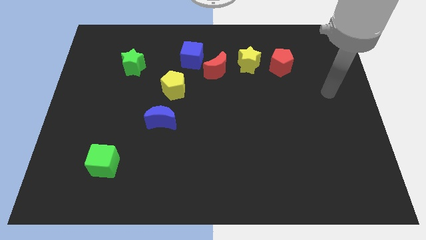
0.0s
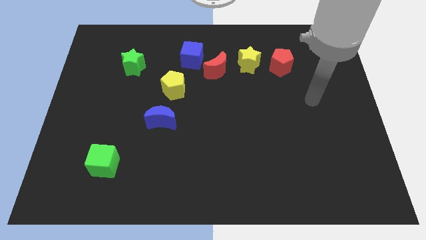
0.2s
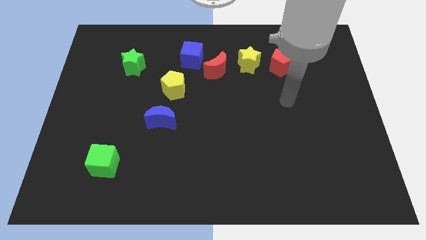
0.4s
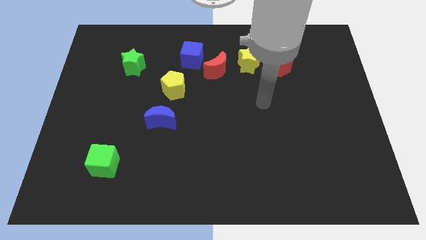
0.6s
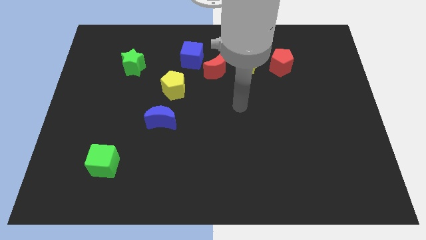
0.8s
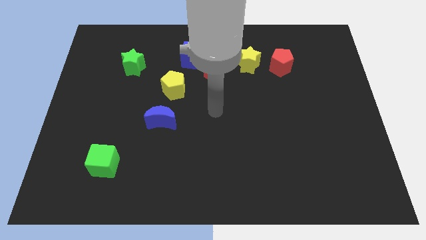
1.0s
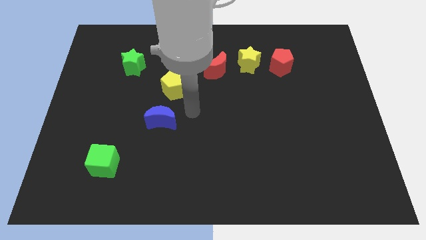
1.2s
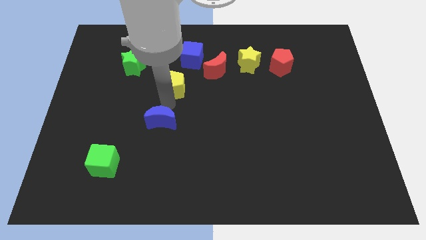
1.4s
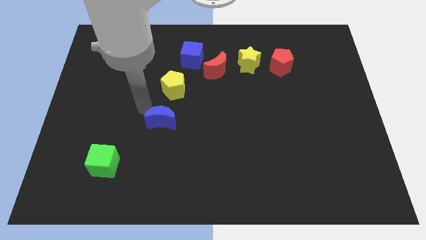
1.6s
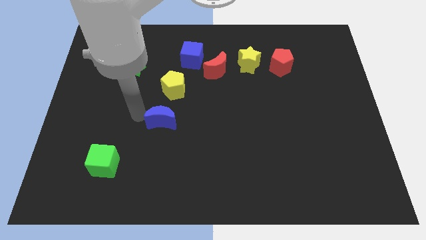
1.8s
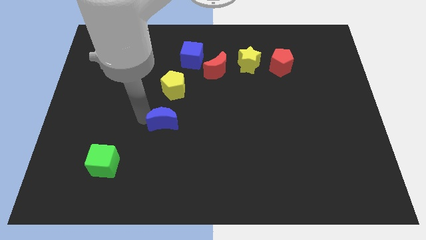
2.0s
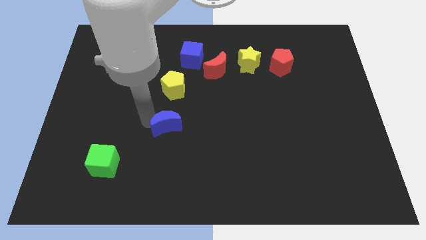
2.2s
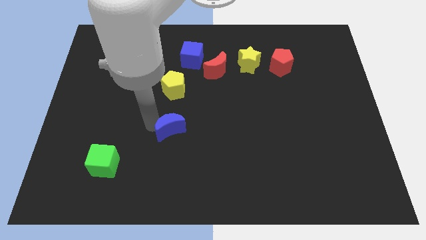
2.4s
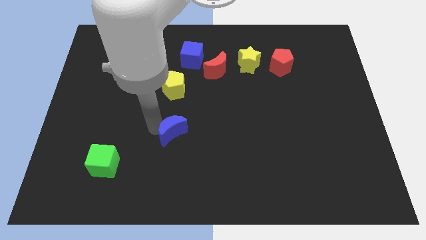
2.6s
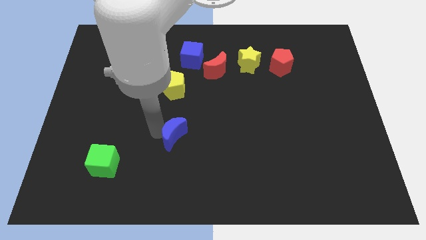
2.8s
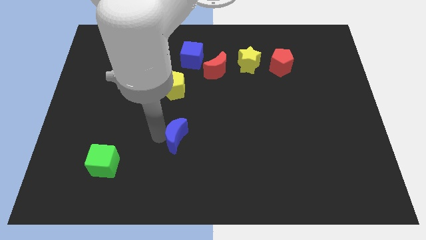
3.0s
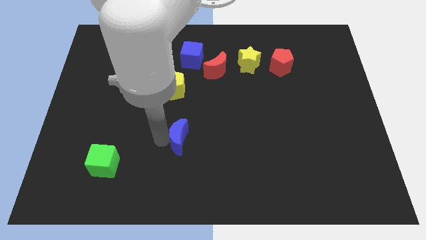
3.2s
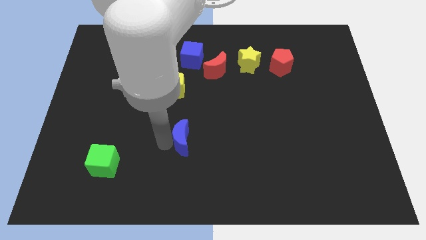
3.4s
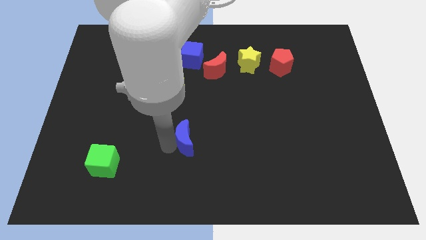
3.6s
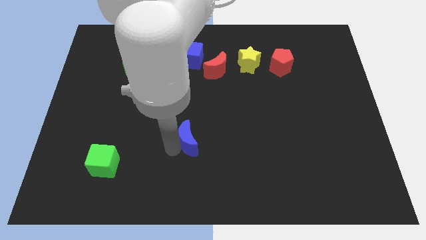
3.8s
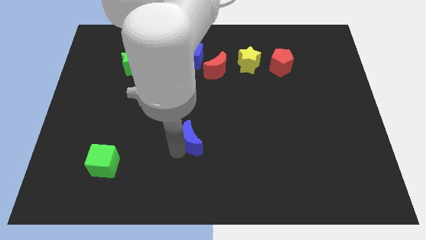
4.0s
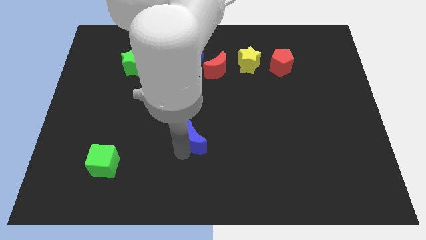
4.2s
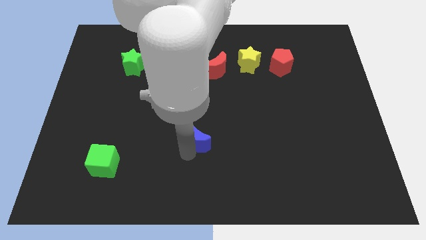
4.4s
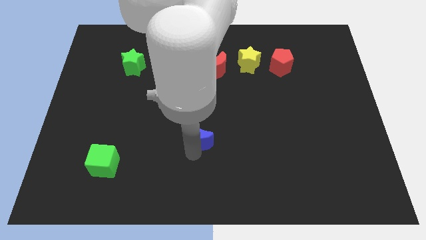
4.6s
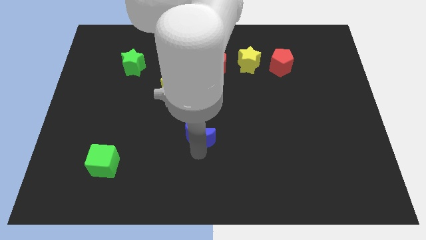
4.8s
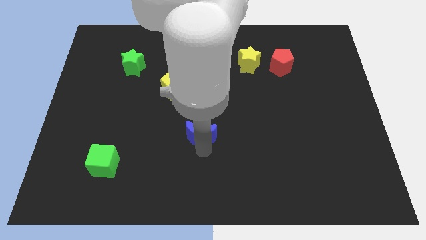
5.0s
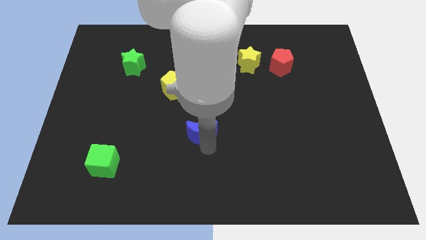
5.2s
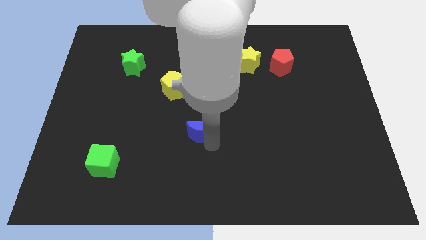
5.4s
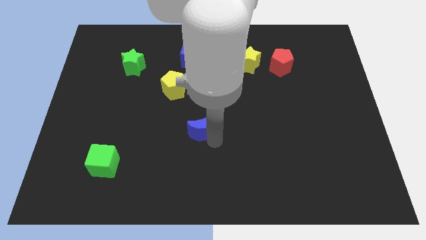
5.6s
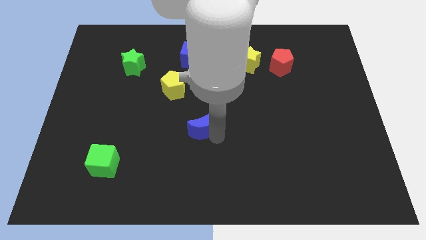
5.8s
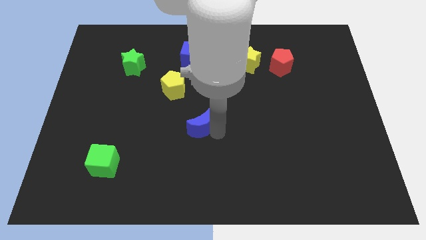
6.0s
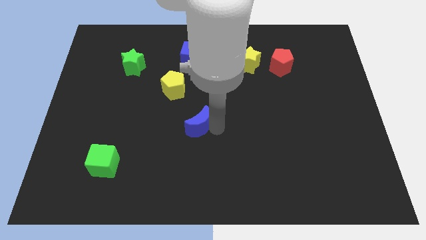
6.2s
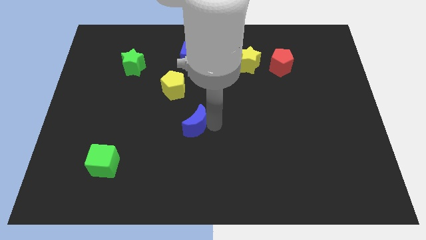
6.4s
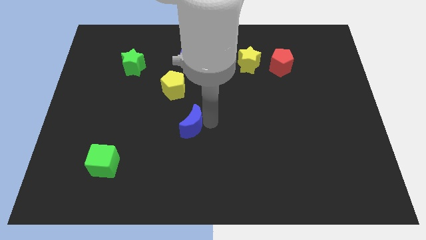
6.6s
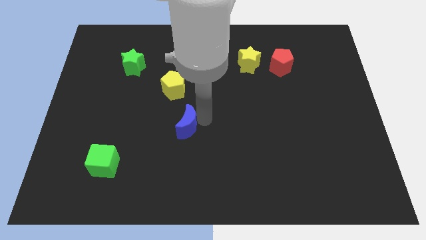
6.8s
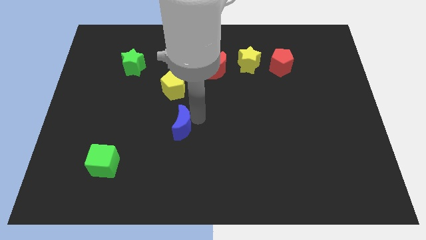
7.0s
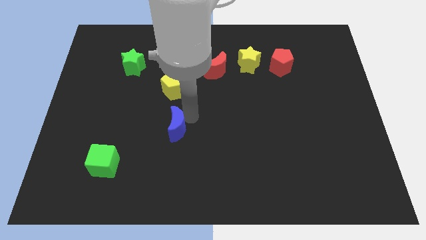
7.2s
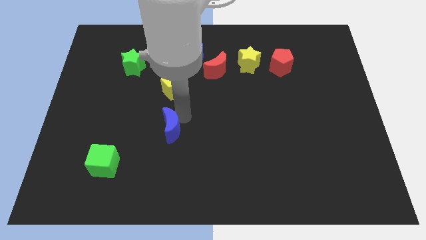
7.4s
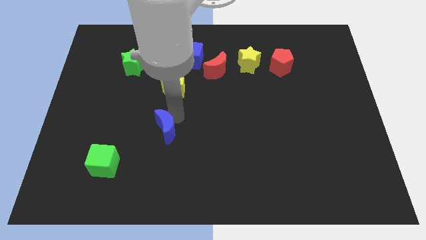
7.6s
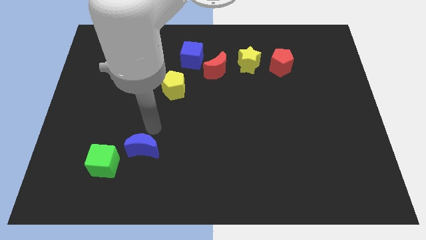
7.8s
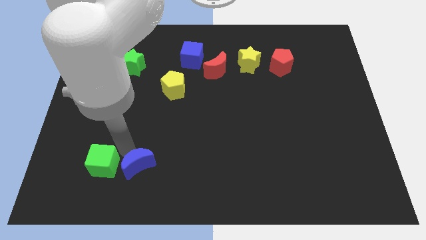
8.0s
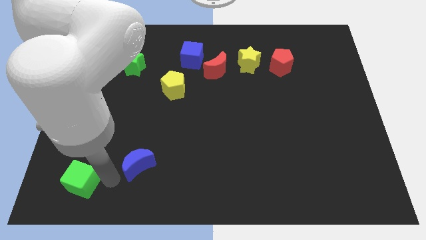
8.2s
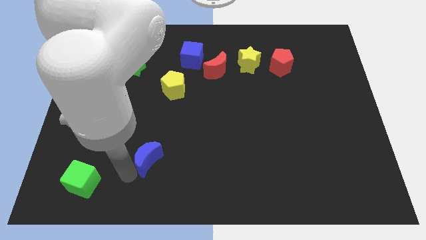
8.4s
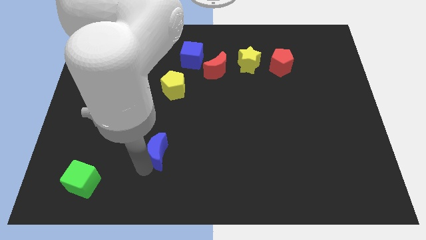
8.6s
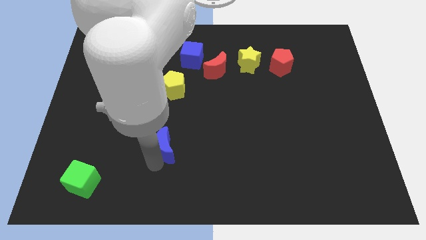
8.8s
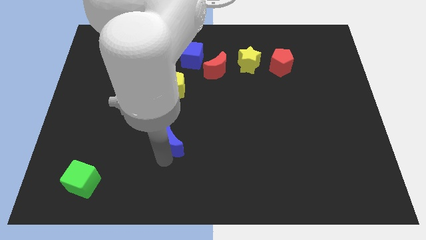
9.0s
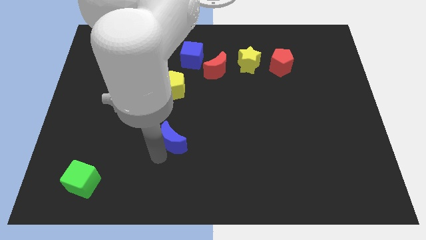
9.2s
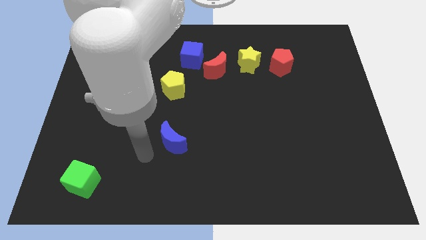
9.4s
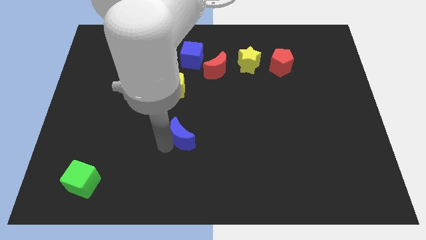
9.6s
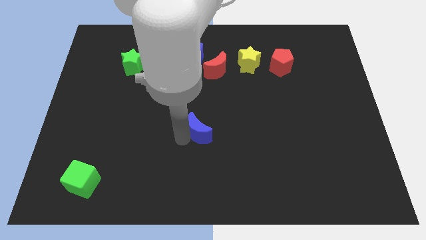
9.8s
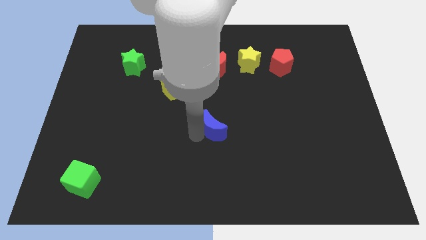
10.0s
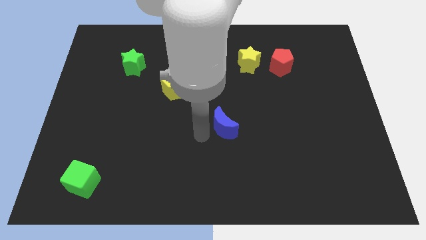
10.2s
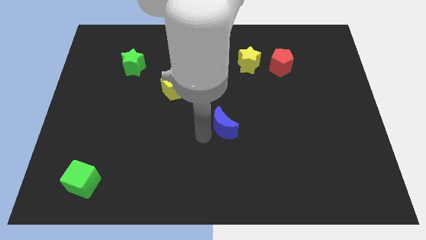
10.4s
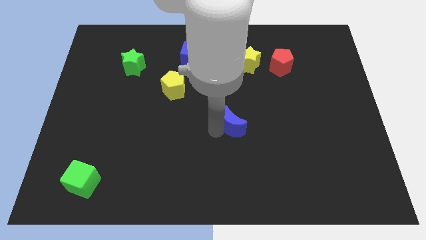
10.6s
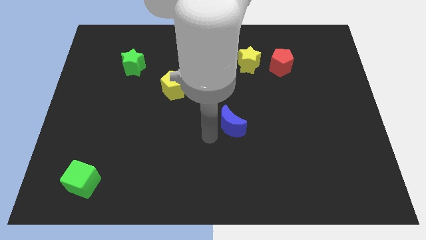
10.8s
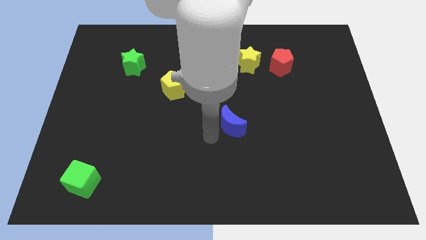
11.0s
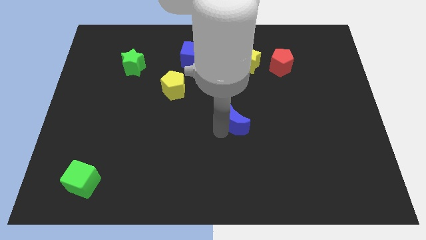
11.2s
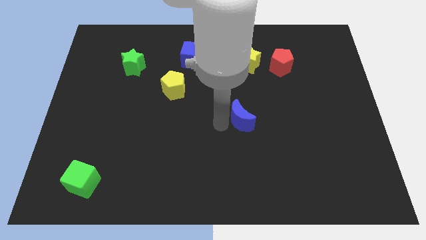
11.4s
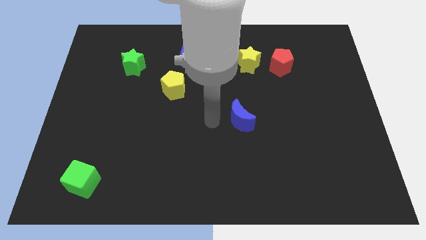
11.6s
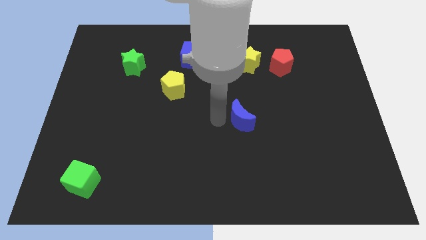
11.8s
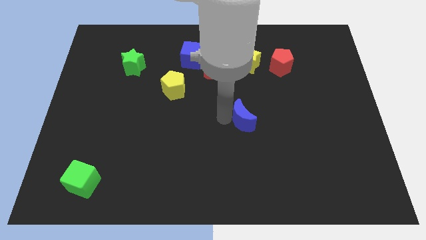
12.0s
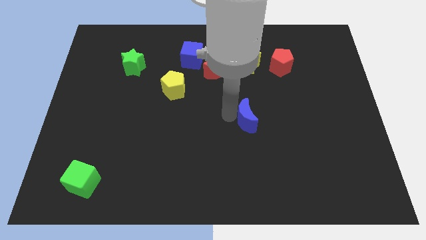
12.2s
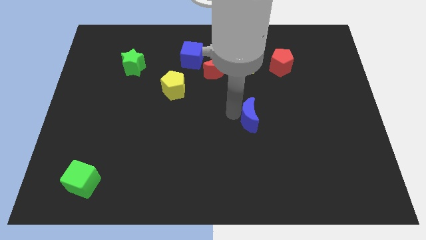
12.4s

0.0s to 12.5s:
push the blue moon right

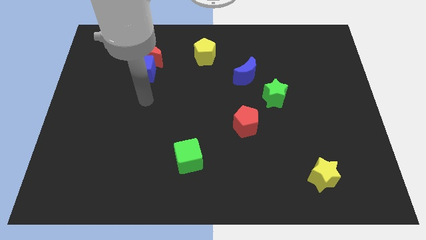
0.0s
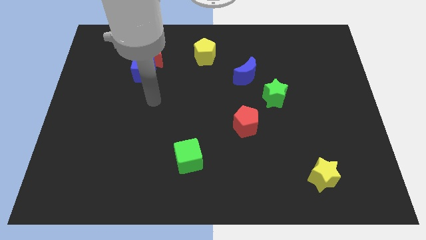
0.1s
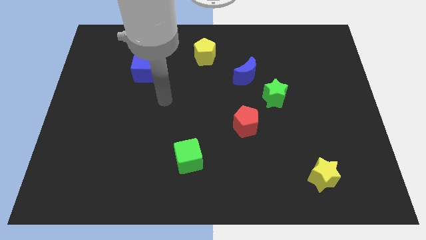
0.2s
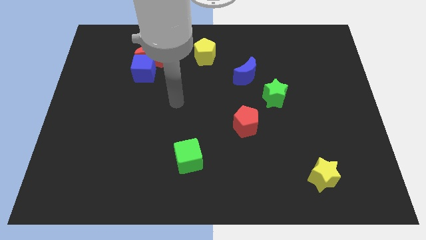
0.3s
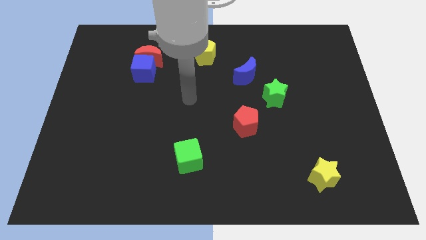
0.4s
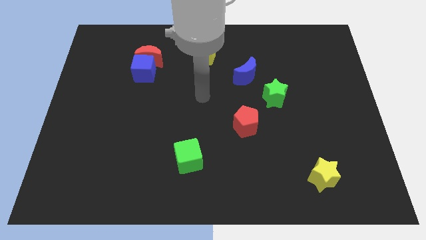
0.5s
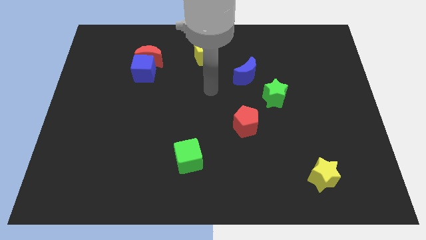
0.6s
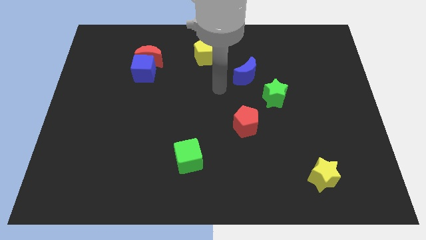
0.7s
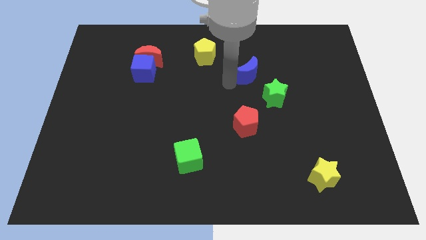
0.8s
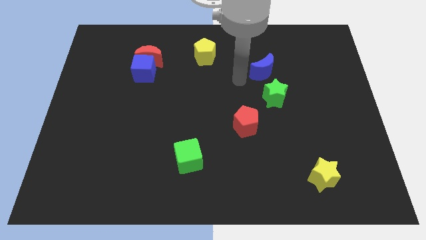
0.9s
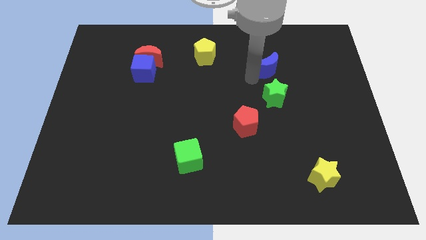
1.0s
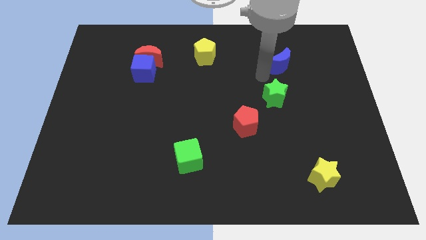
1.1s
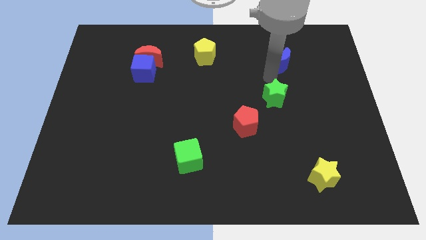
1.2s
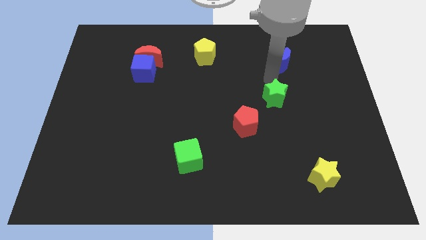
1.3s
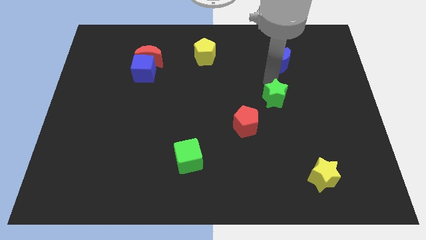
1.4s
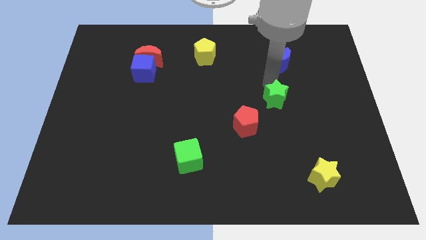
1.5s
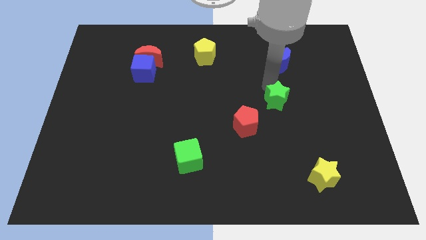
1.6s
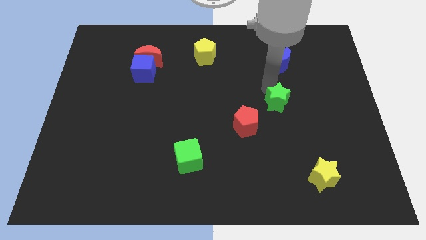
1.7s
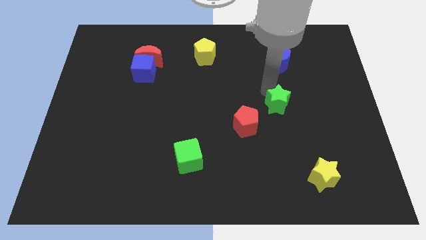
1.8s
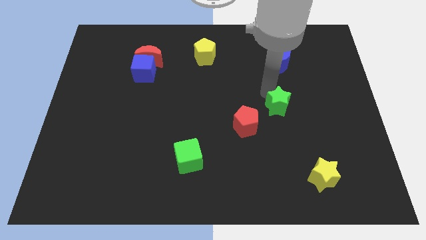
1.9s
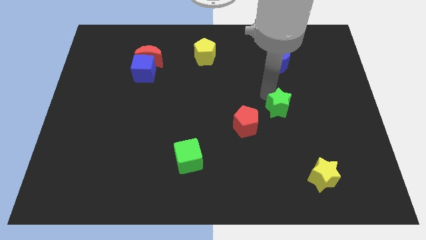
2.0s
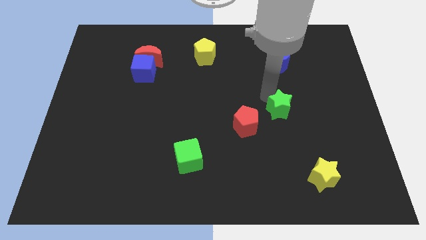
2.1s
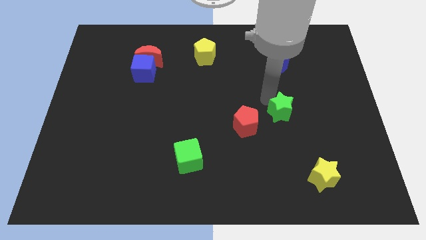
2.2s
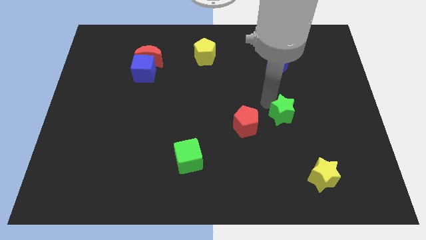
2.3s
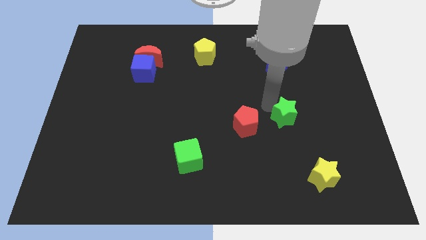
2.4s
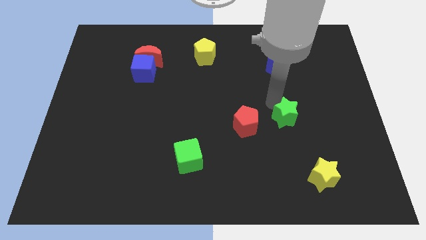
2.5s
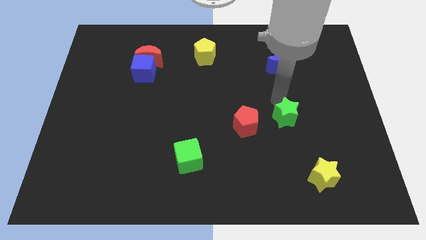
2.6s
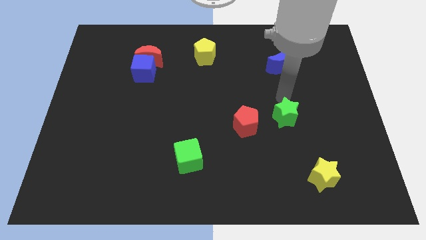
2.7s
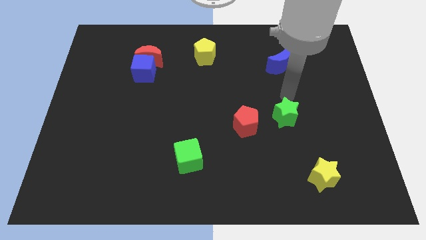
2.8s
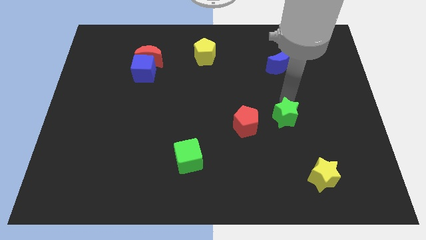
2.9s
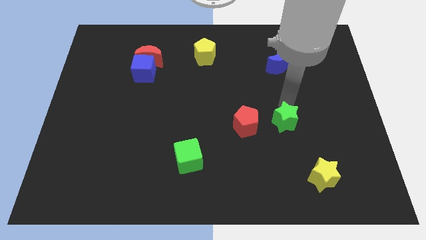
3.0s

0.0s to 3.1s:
push the green star down a bit
